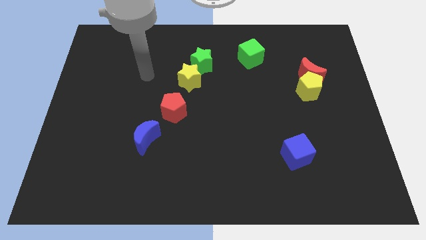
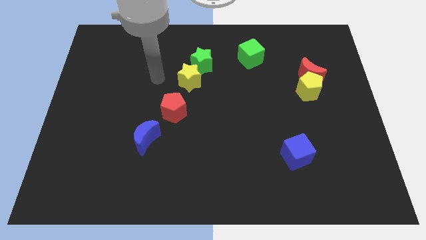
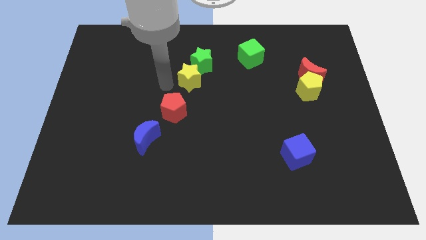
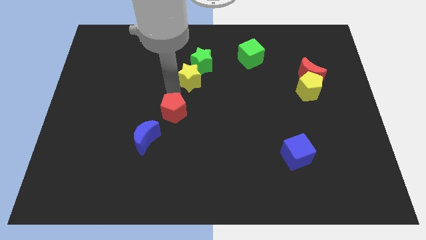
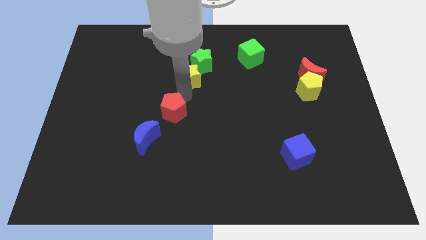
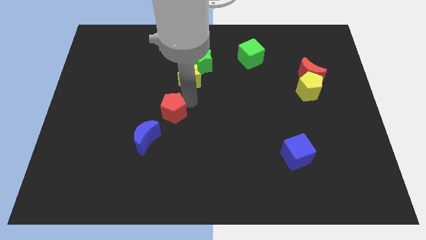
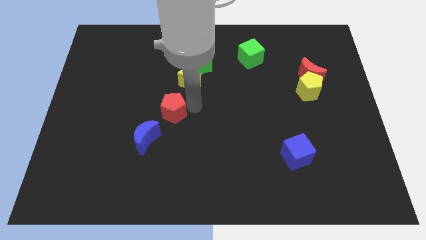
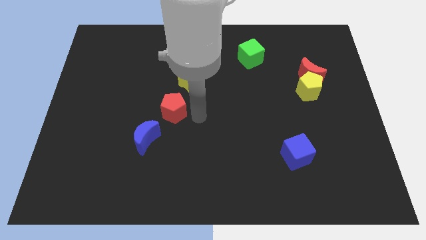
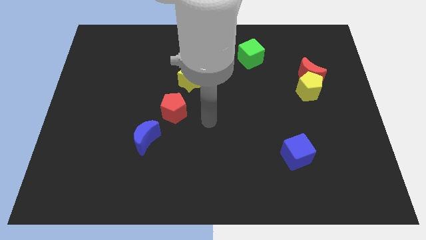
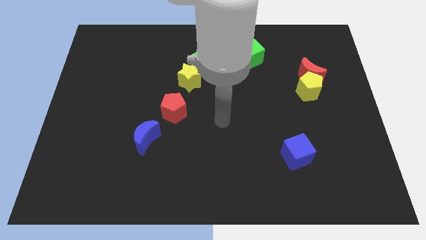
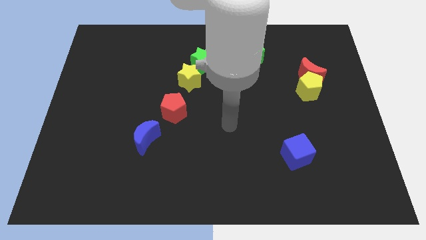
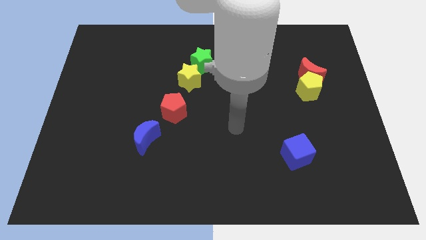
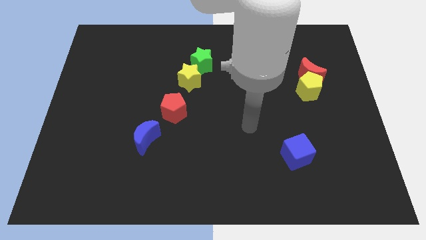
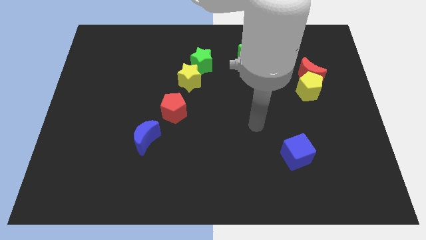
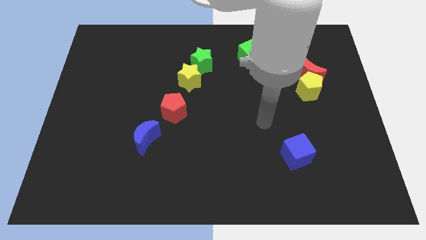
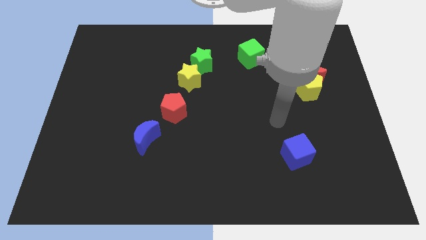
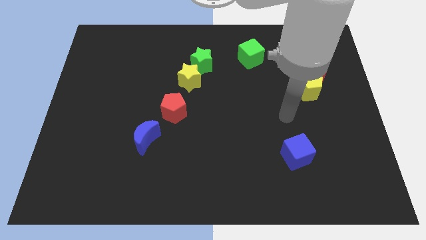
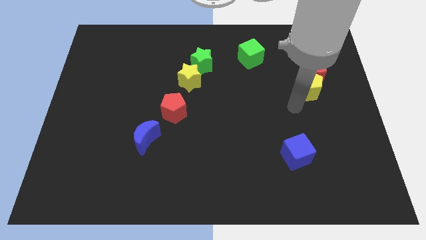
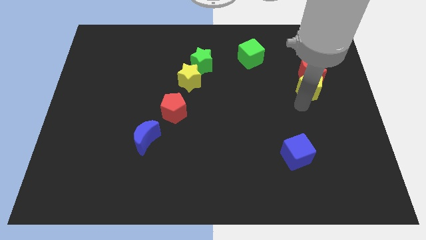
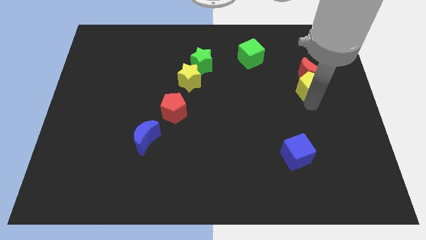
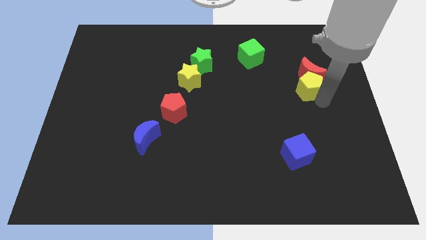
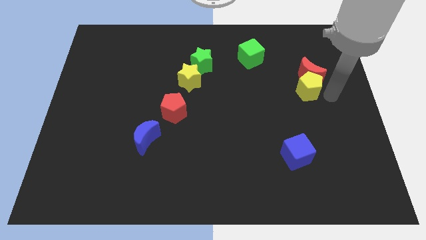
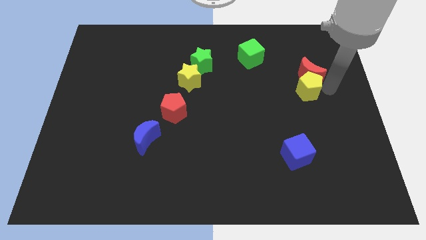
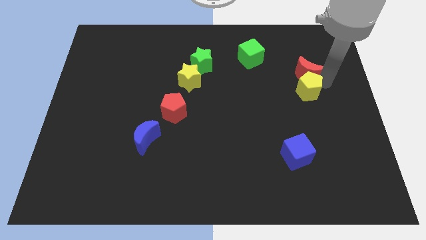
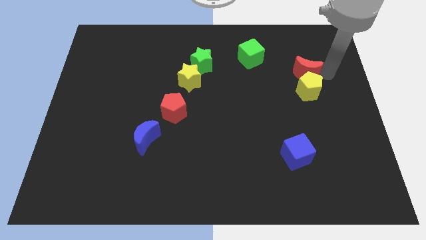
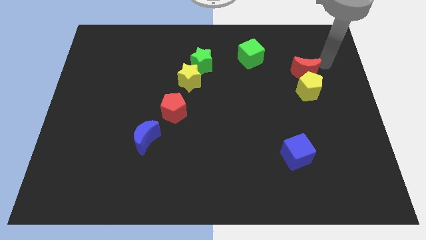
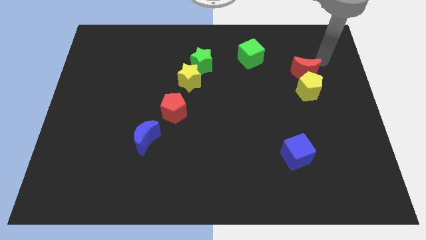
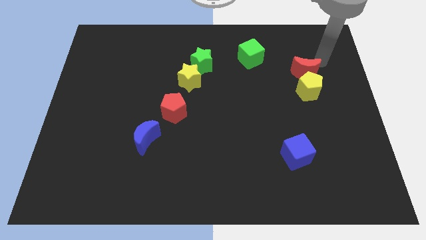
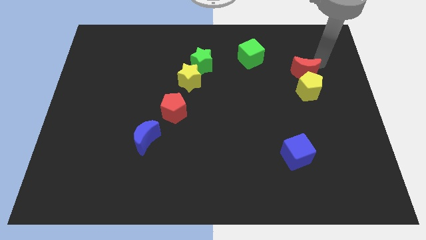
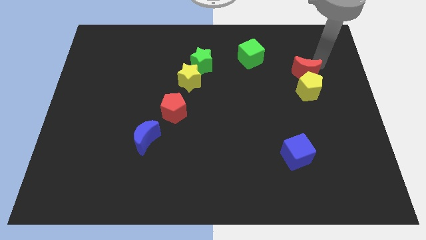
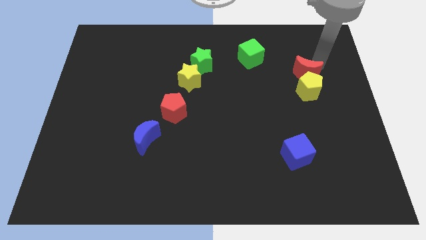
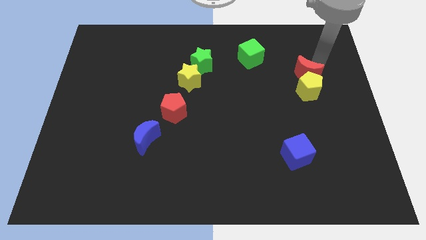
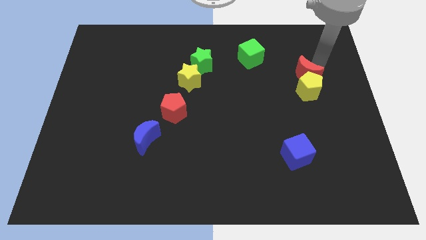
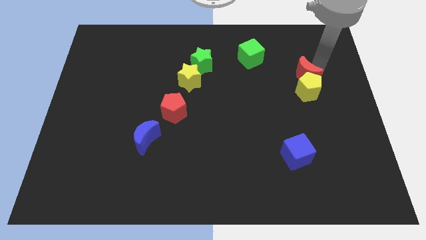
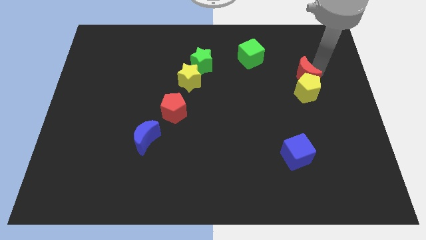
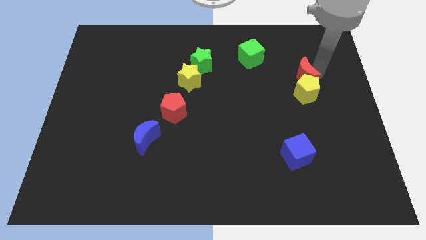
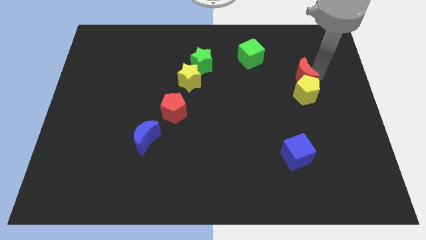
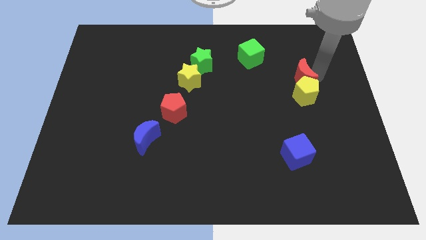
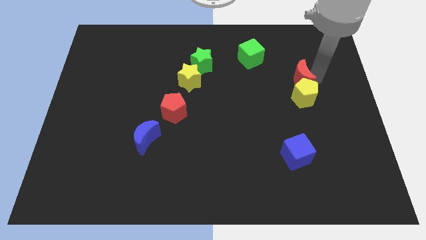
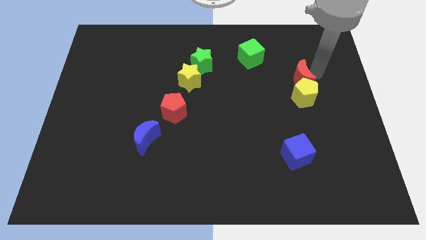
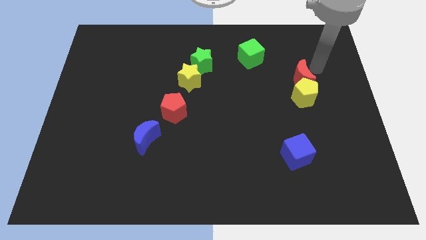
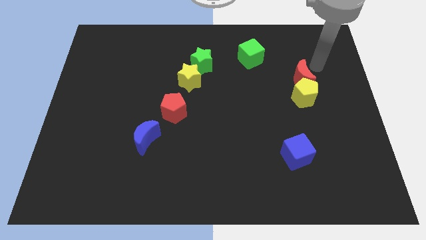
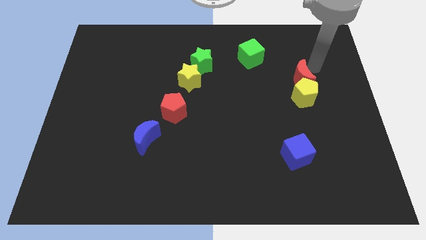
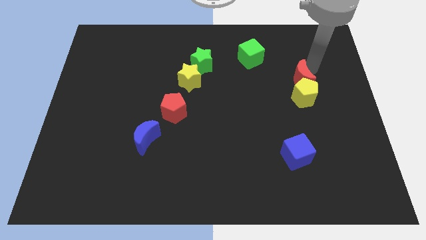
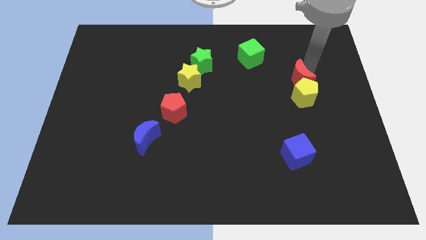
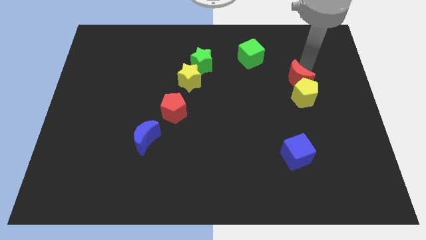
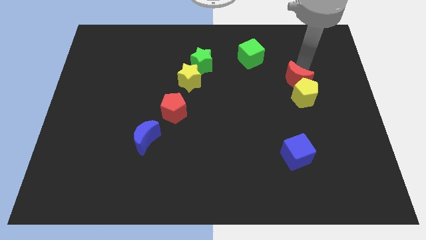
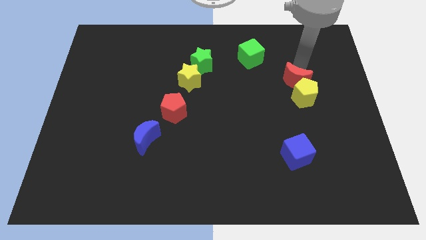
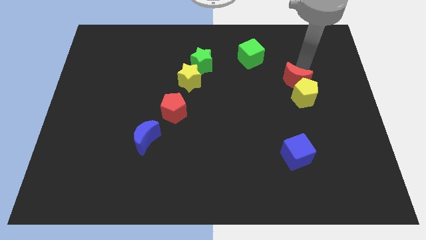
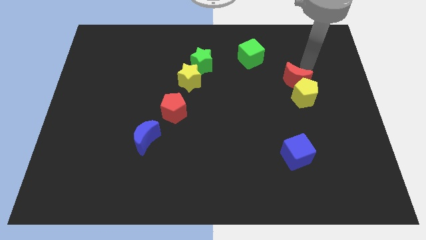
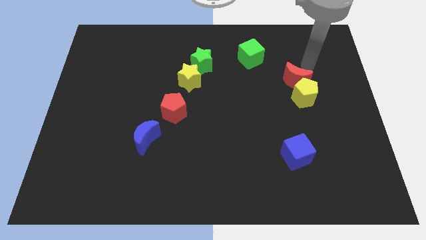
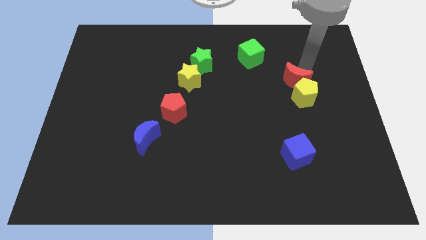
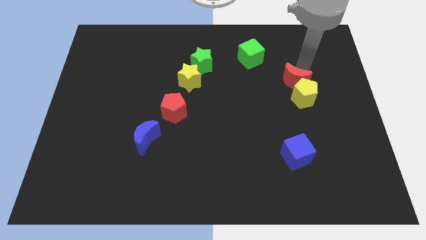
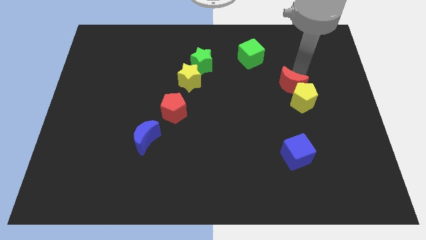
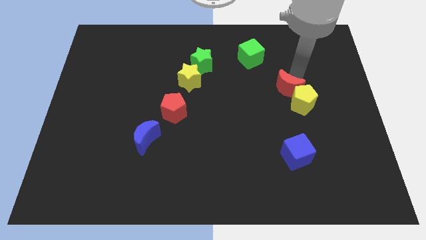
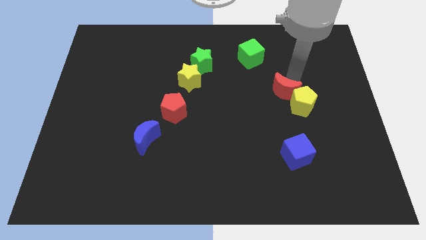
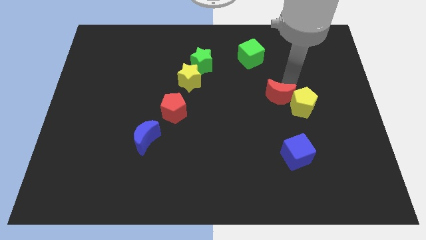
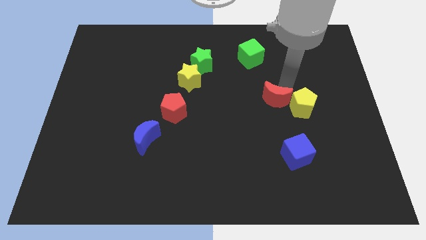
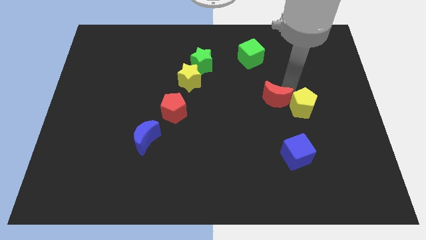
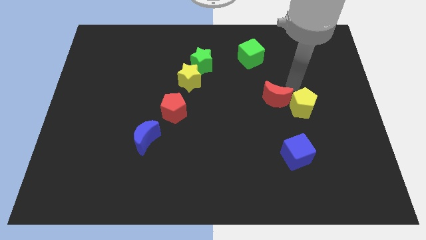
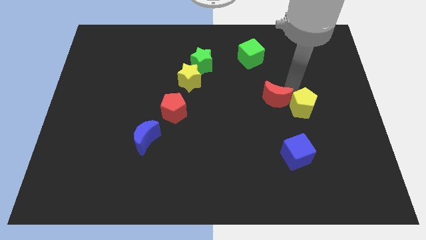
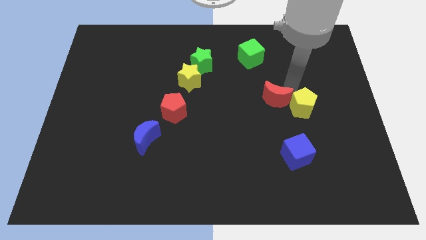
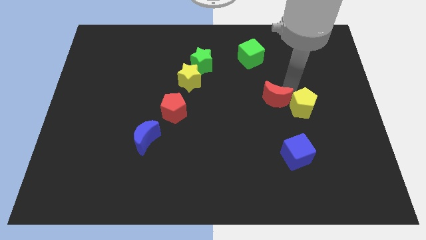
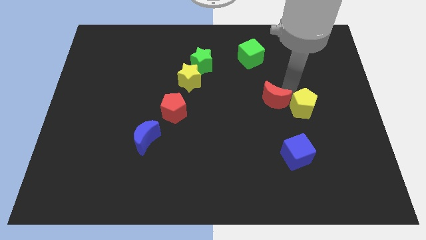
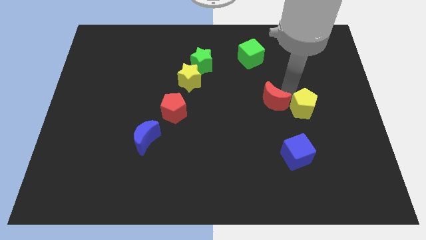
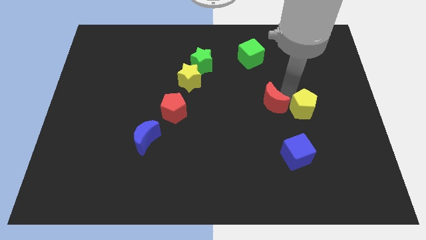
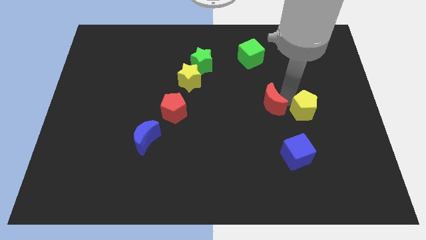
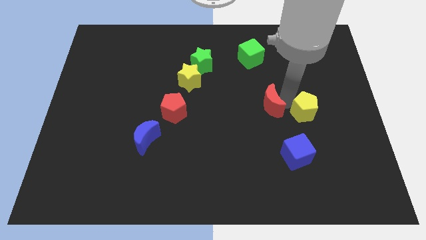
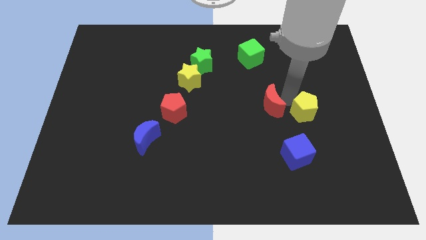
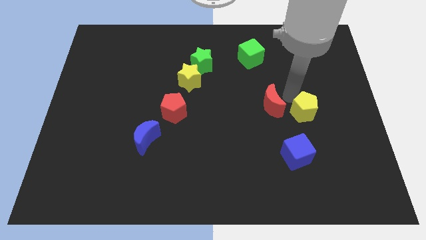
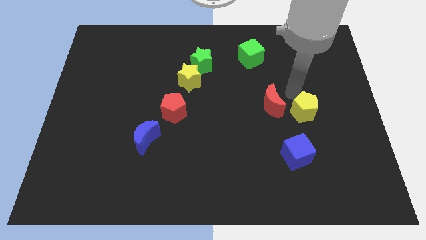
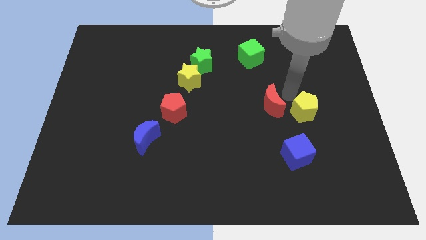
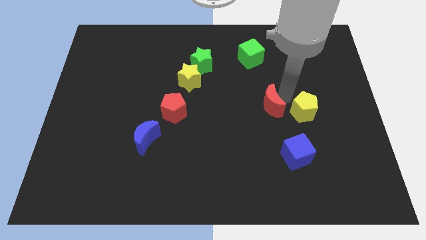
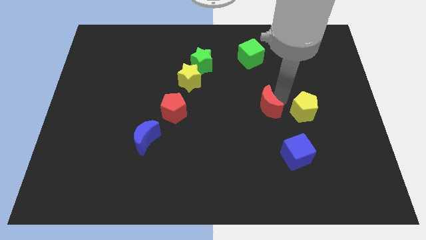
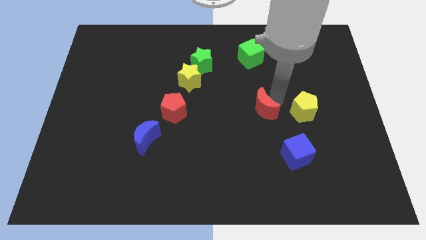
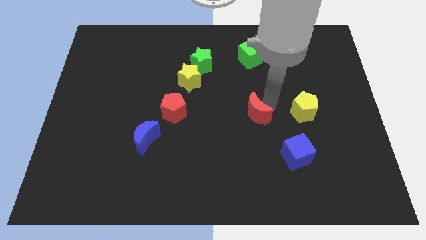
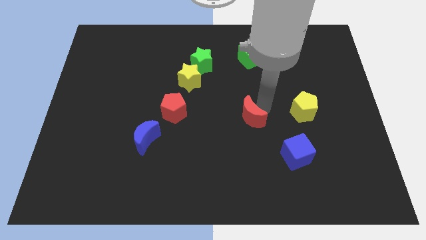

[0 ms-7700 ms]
move the red moon downwards and left

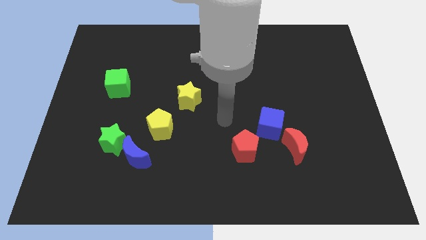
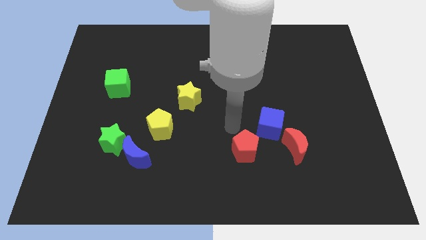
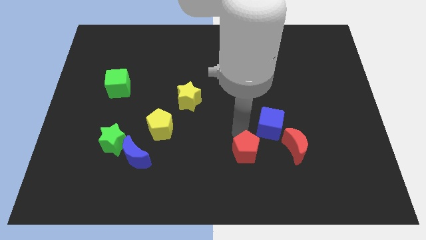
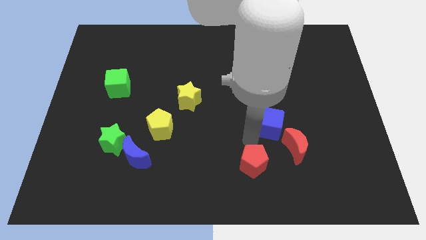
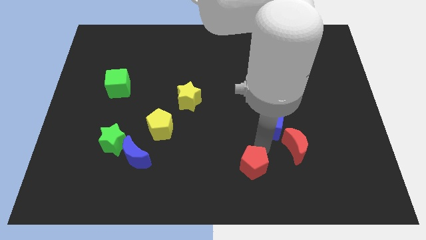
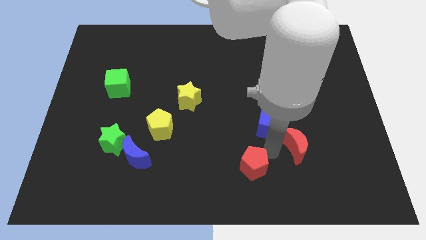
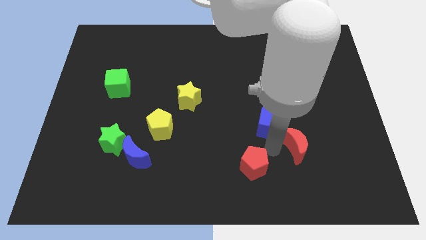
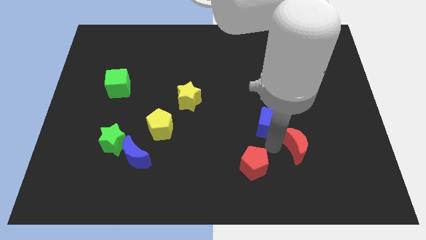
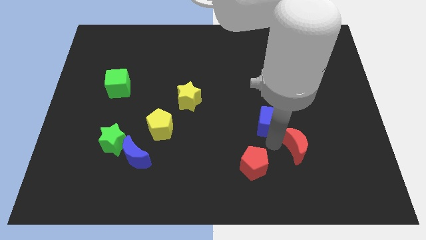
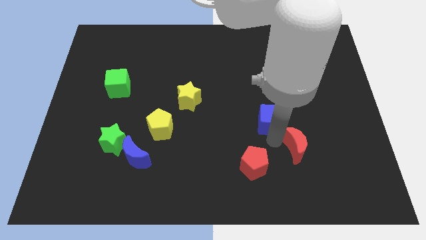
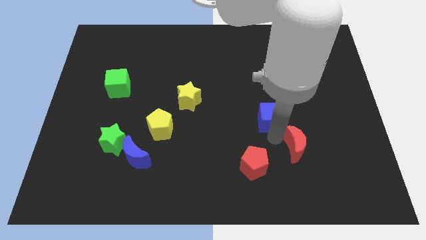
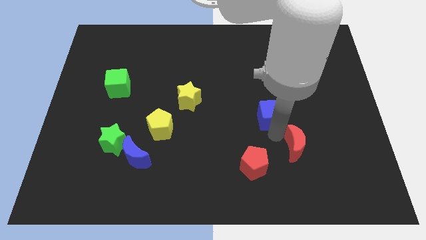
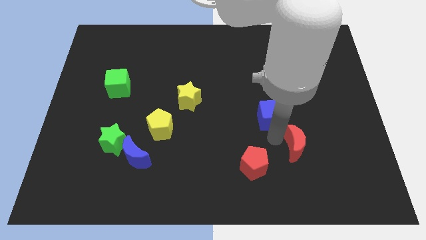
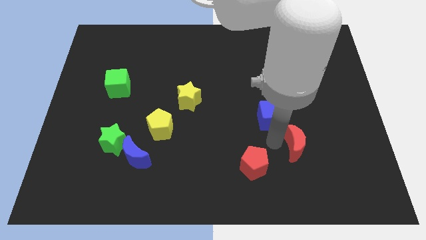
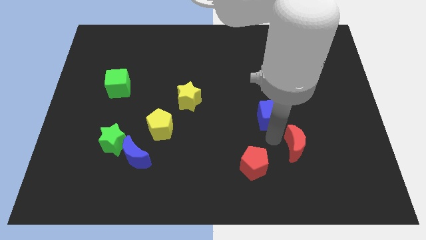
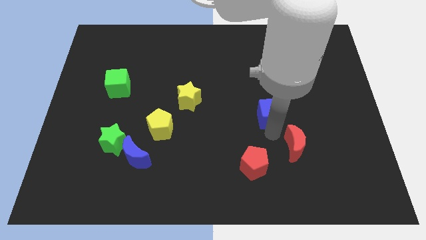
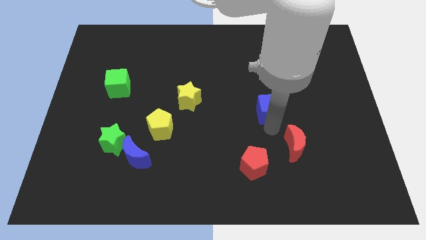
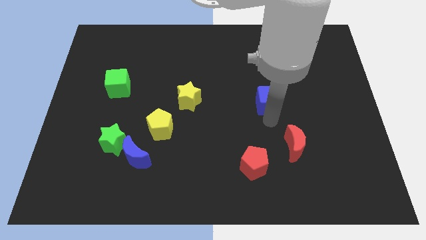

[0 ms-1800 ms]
slightly slide the blue cube upwards
